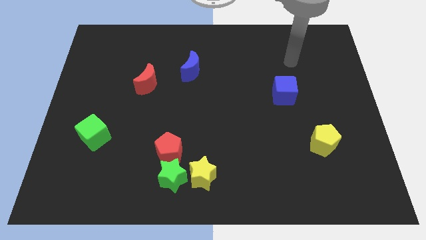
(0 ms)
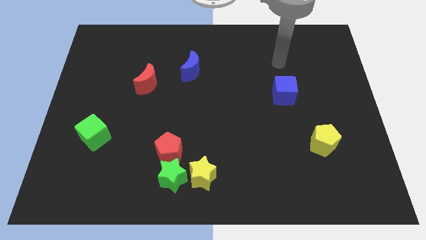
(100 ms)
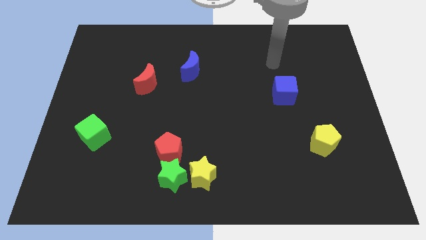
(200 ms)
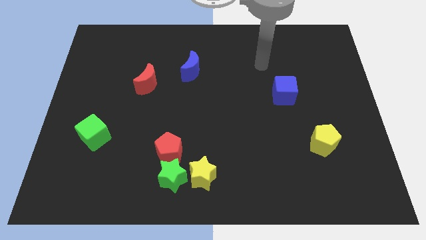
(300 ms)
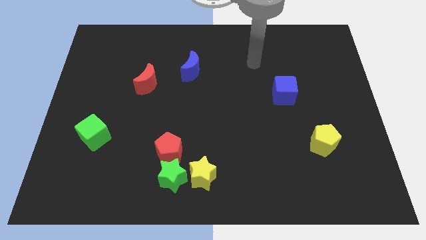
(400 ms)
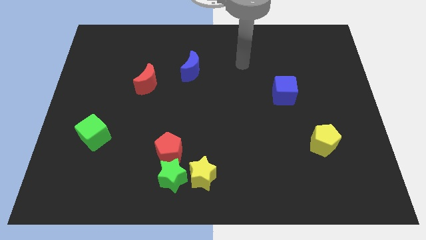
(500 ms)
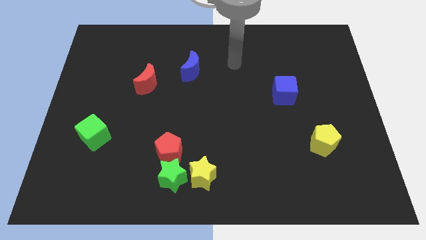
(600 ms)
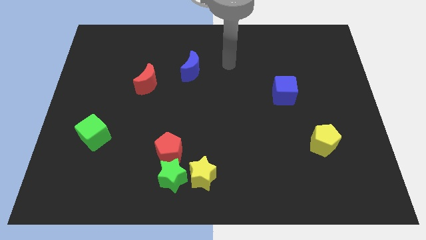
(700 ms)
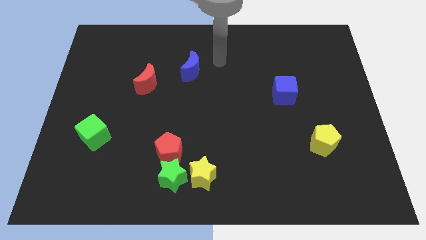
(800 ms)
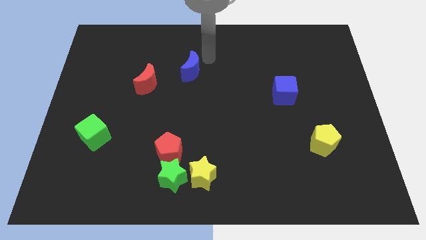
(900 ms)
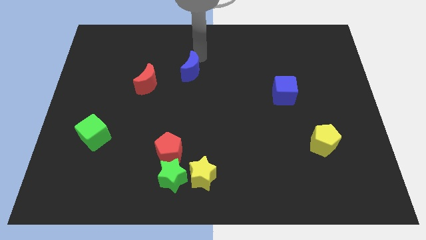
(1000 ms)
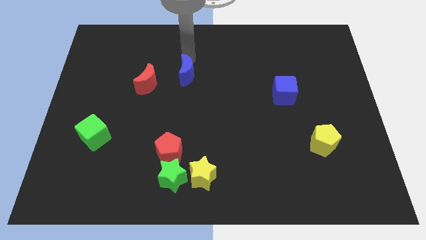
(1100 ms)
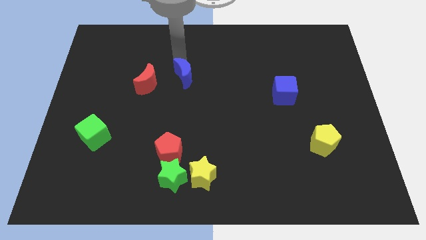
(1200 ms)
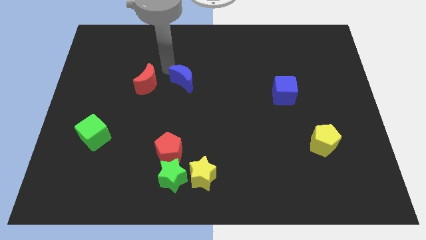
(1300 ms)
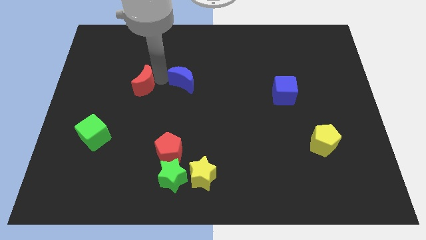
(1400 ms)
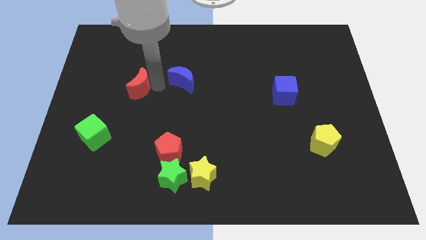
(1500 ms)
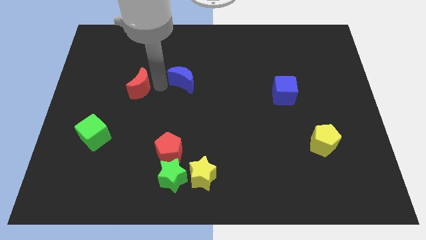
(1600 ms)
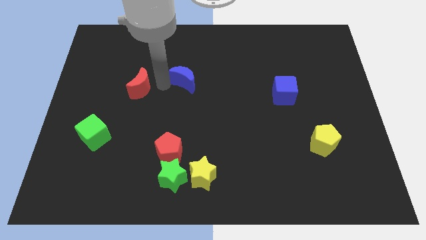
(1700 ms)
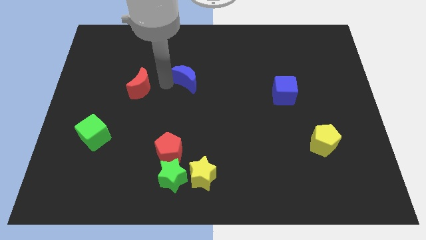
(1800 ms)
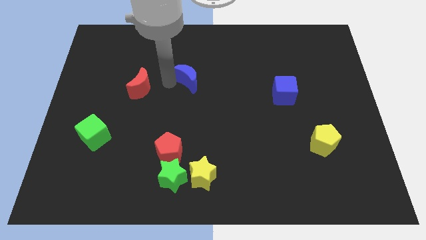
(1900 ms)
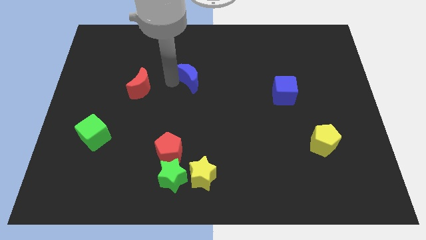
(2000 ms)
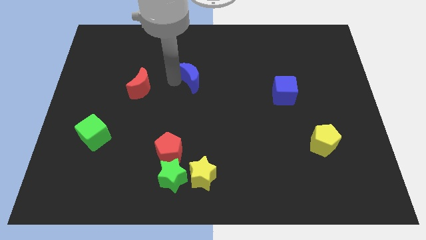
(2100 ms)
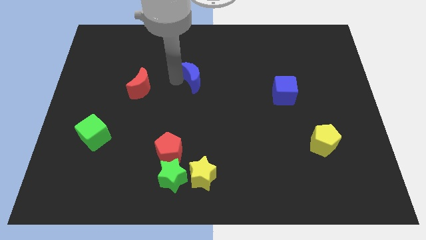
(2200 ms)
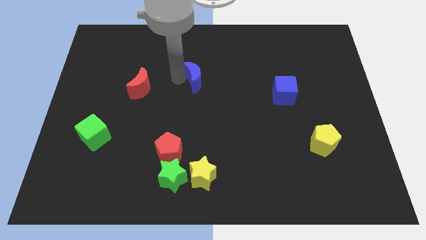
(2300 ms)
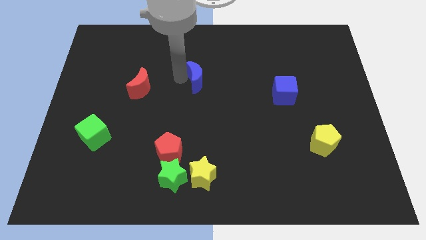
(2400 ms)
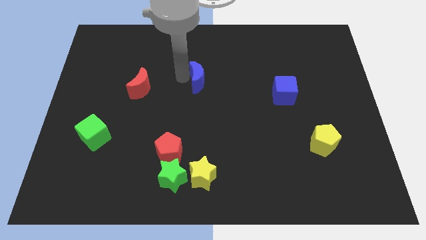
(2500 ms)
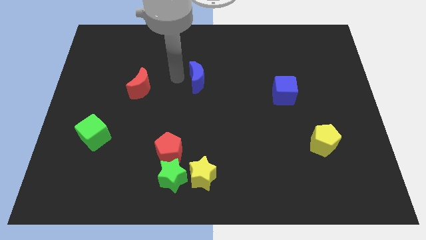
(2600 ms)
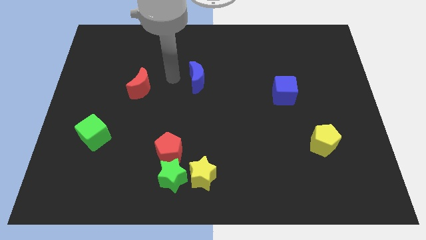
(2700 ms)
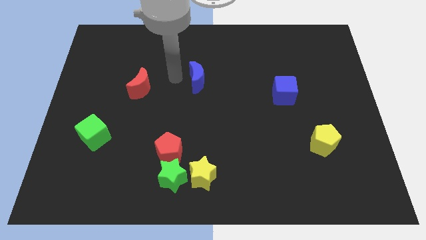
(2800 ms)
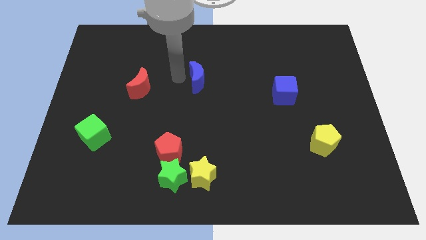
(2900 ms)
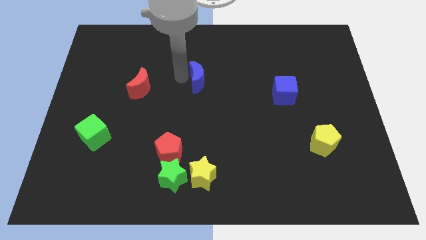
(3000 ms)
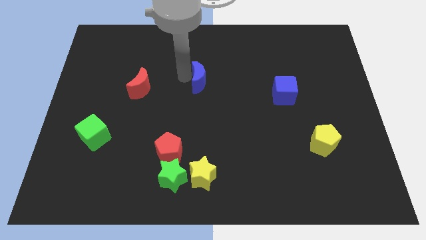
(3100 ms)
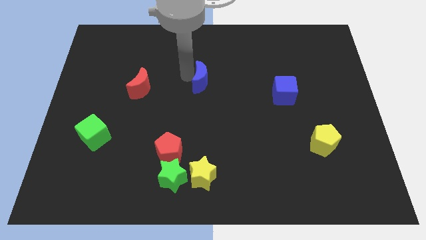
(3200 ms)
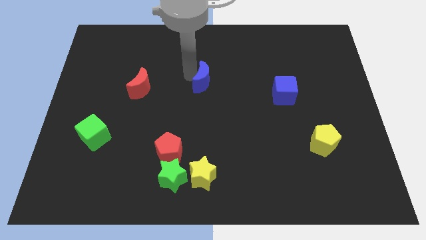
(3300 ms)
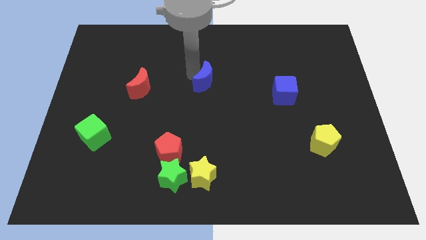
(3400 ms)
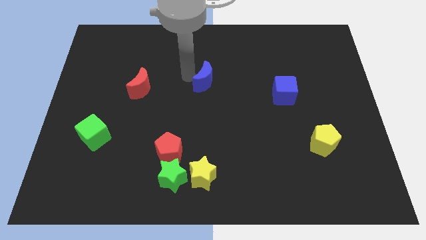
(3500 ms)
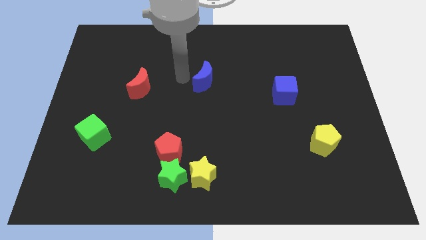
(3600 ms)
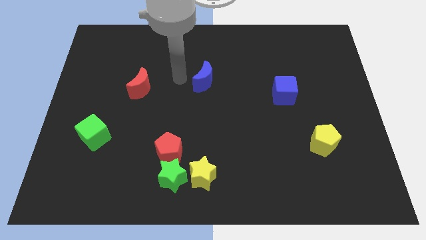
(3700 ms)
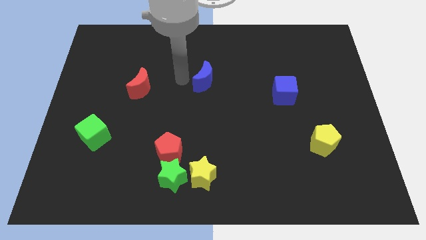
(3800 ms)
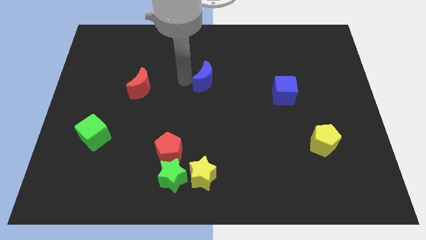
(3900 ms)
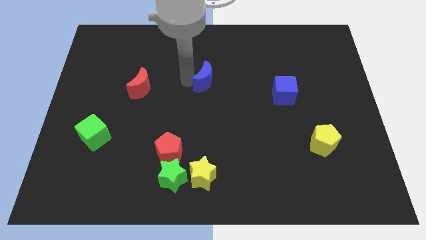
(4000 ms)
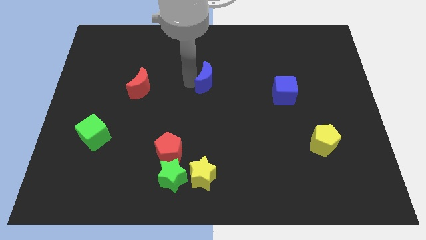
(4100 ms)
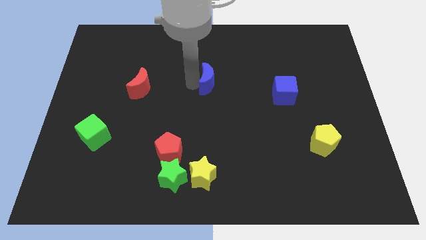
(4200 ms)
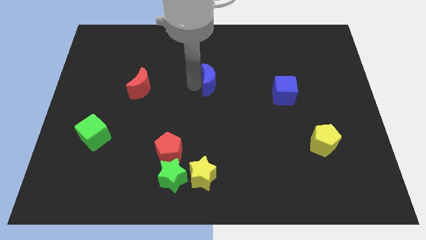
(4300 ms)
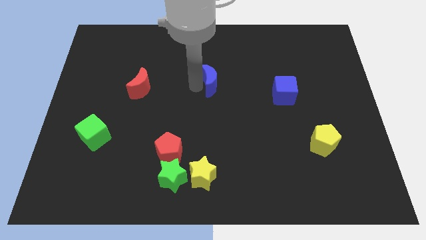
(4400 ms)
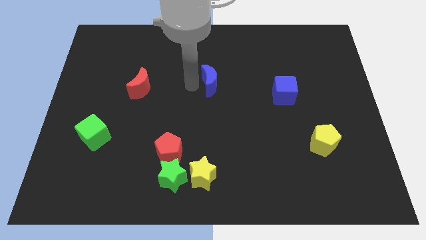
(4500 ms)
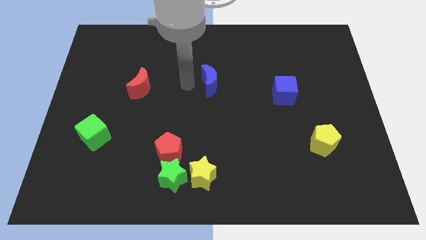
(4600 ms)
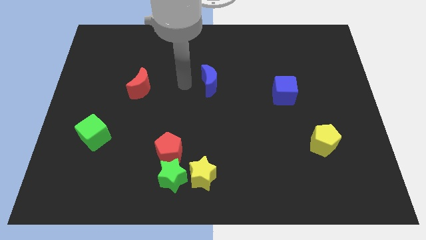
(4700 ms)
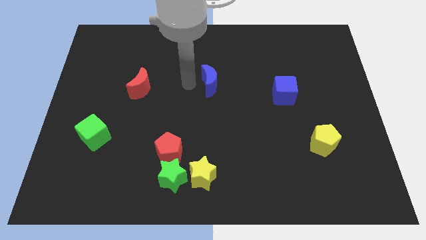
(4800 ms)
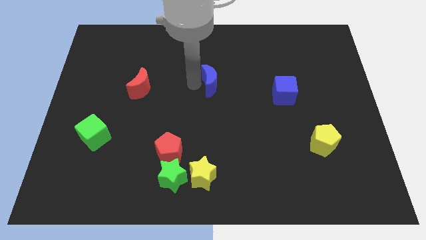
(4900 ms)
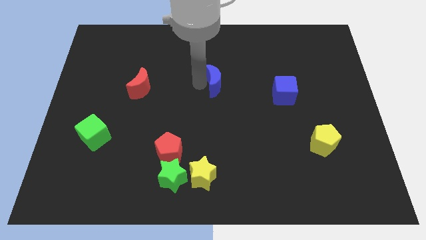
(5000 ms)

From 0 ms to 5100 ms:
slightly push the blue moon down and right diagonally

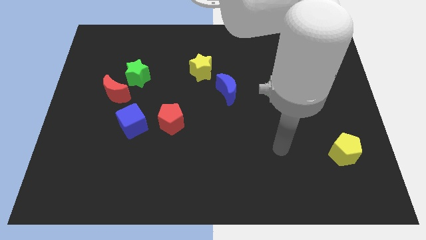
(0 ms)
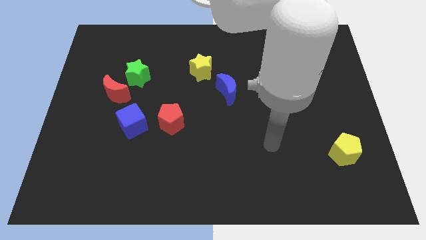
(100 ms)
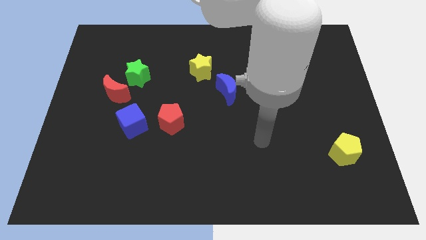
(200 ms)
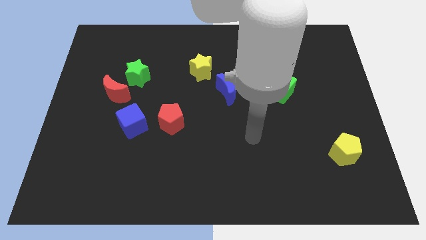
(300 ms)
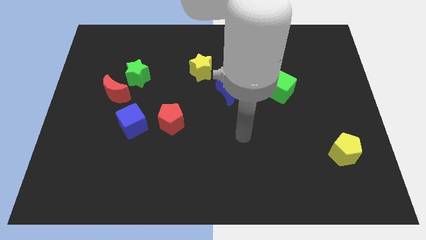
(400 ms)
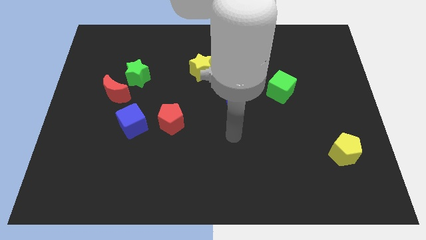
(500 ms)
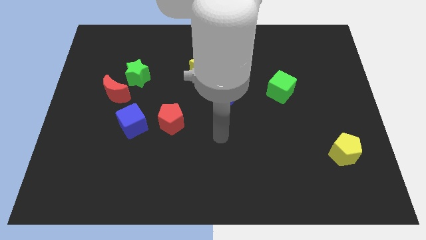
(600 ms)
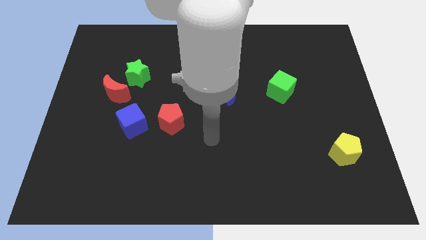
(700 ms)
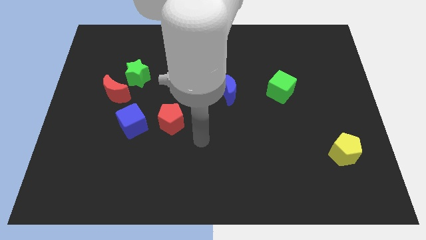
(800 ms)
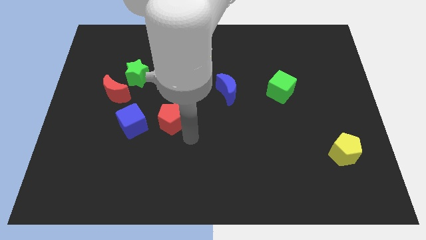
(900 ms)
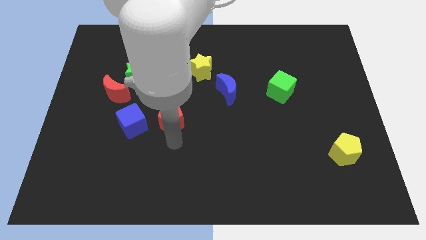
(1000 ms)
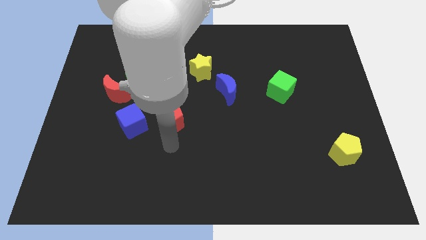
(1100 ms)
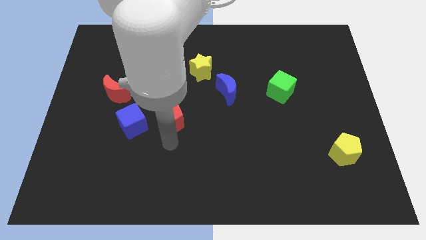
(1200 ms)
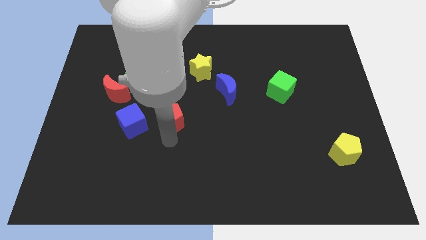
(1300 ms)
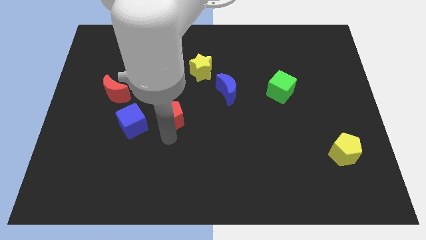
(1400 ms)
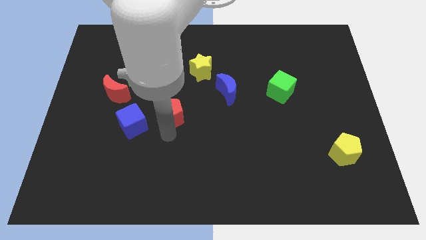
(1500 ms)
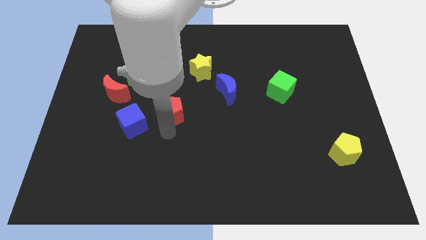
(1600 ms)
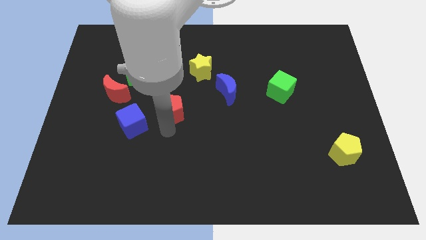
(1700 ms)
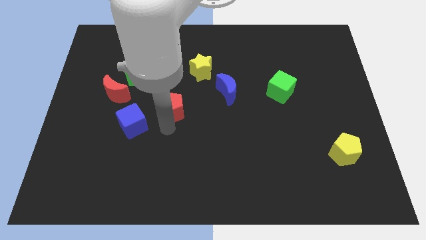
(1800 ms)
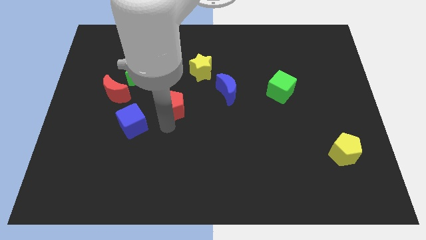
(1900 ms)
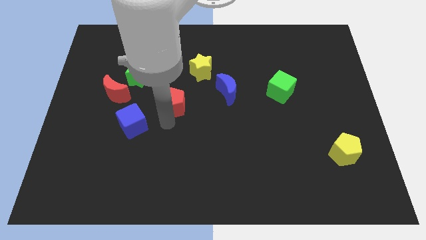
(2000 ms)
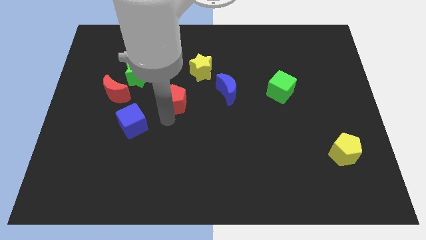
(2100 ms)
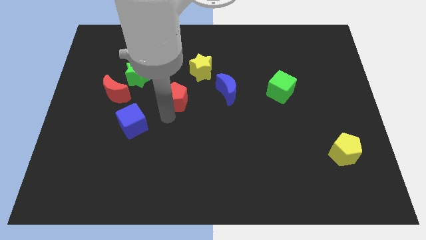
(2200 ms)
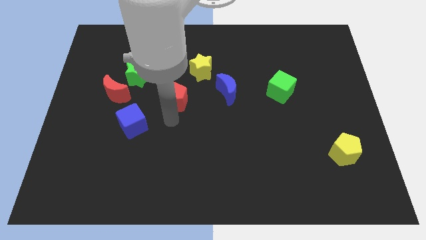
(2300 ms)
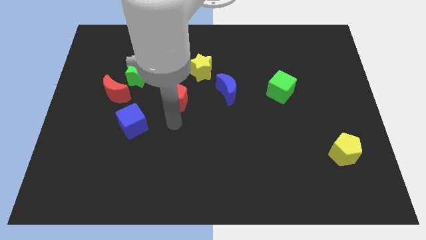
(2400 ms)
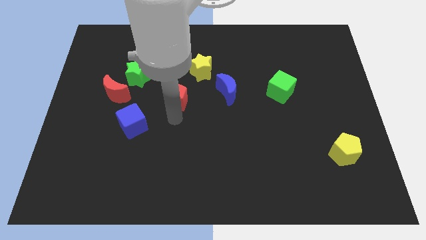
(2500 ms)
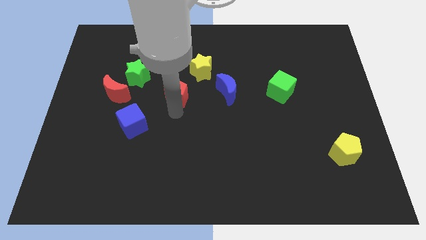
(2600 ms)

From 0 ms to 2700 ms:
slide the red pentagon somewhat upwards
